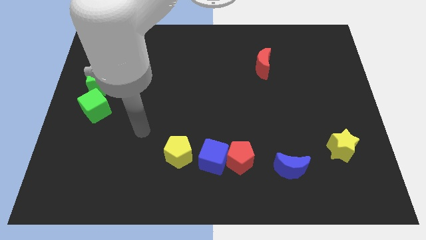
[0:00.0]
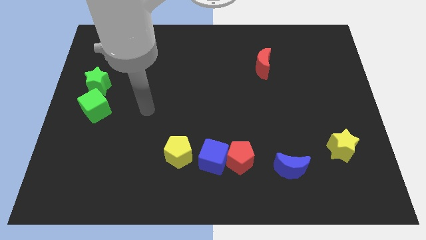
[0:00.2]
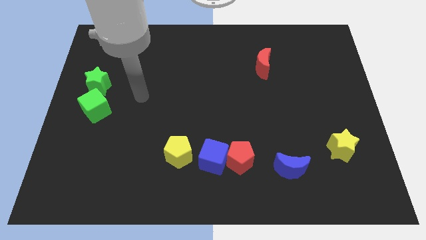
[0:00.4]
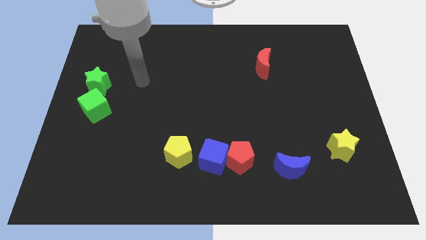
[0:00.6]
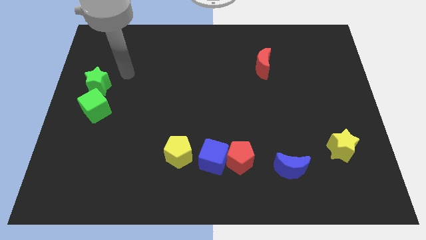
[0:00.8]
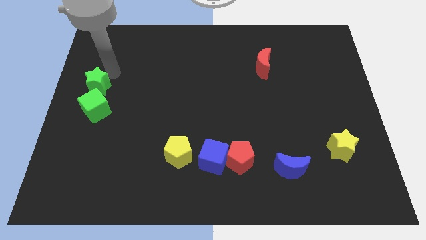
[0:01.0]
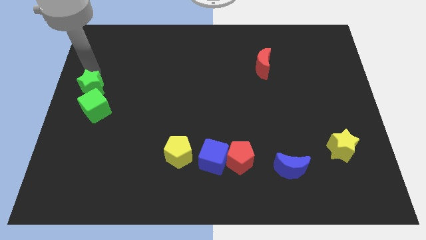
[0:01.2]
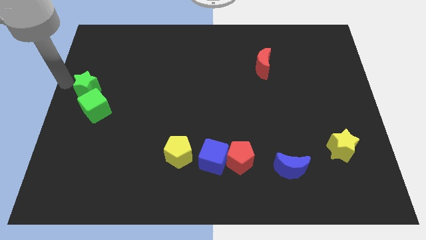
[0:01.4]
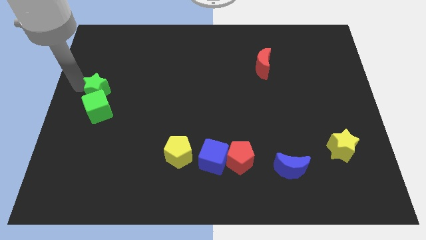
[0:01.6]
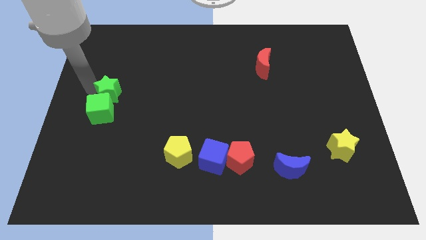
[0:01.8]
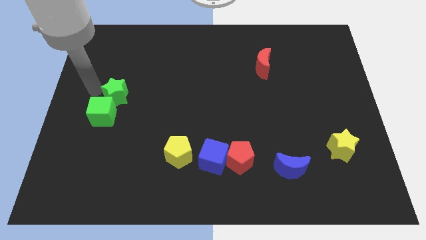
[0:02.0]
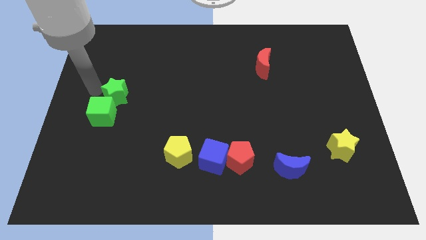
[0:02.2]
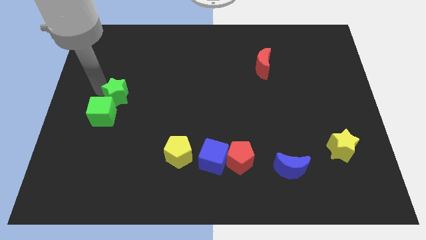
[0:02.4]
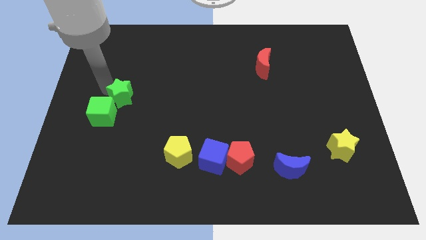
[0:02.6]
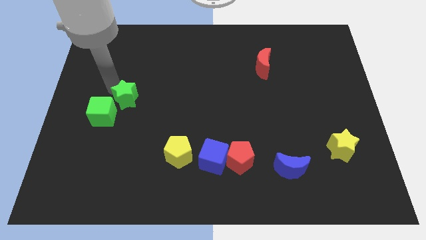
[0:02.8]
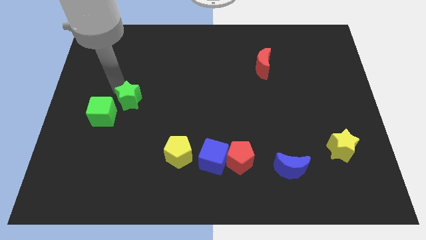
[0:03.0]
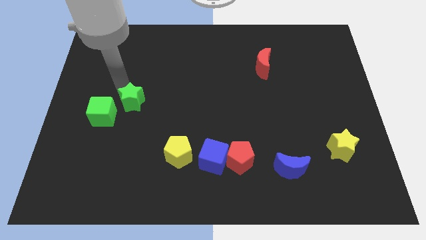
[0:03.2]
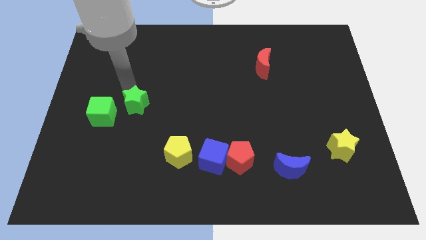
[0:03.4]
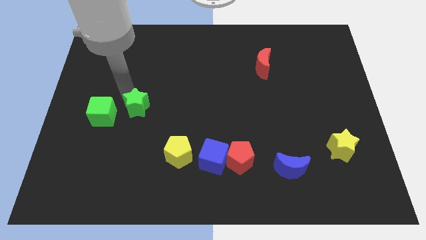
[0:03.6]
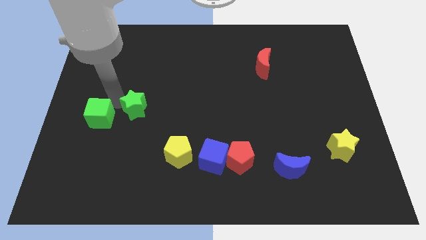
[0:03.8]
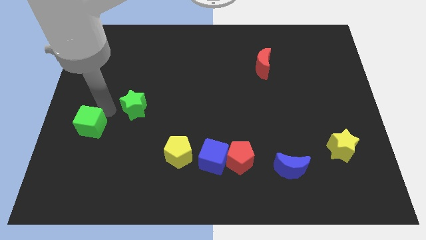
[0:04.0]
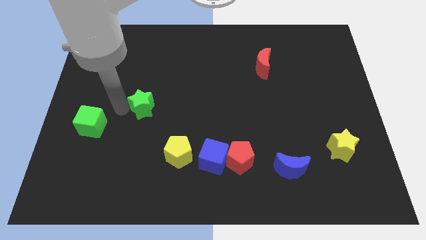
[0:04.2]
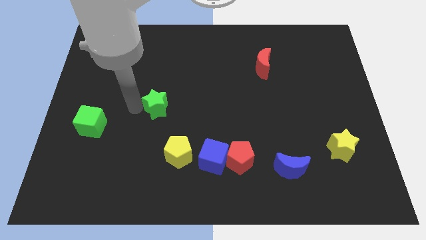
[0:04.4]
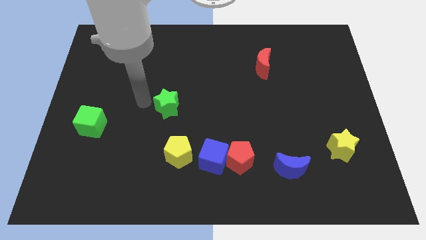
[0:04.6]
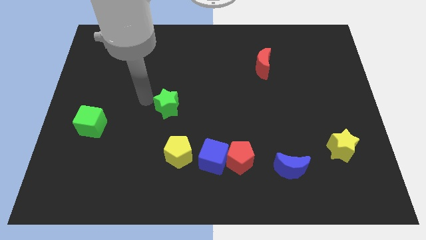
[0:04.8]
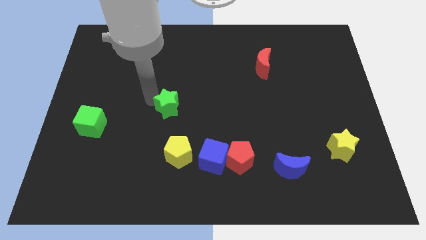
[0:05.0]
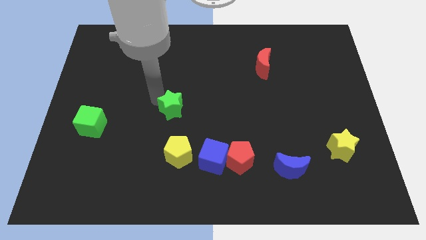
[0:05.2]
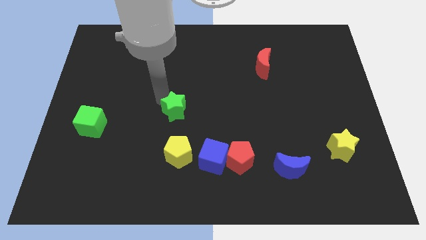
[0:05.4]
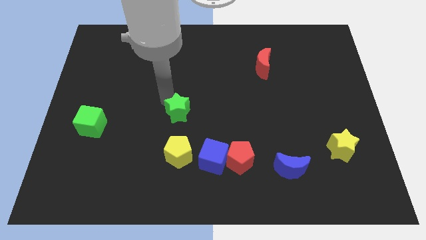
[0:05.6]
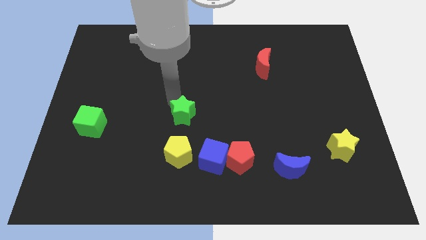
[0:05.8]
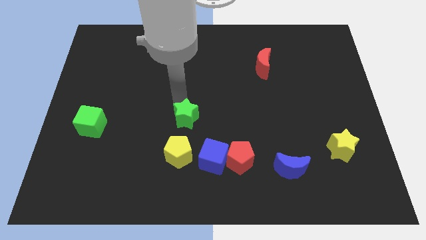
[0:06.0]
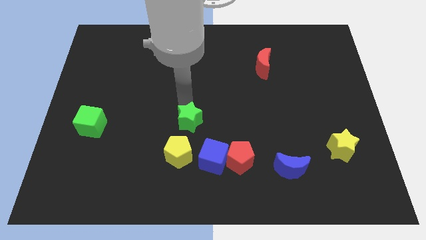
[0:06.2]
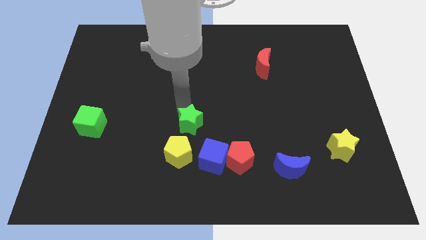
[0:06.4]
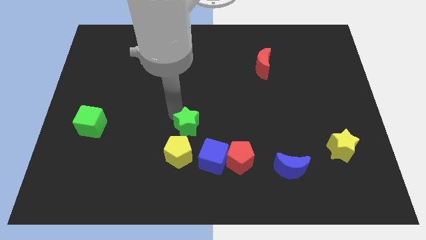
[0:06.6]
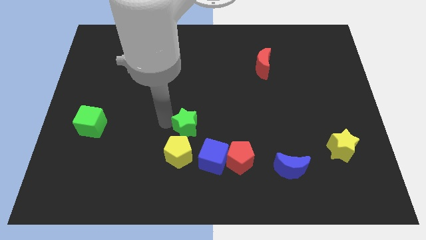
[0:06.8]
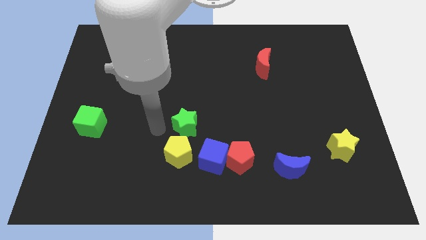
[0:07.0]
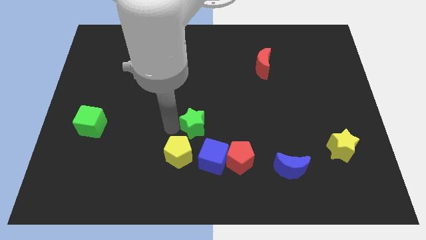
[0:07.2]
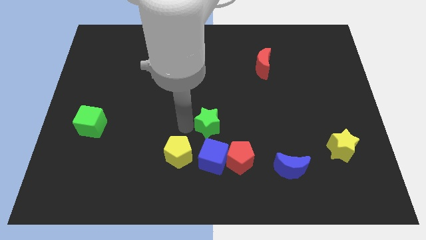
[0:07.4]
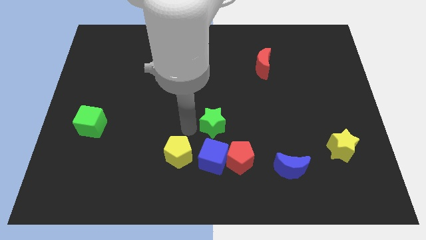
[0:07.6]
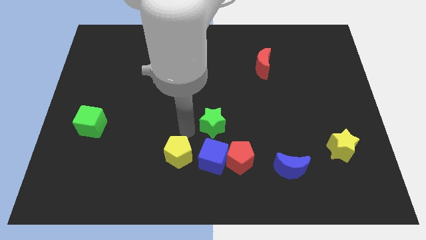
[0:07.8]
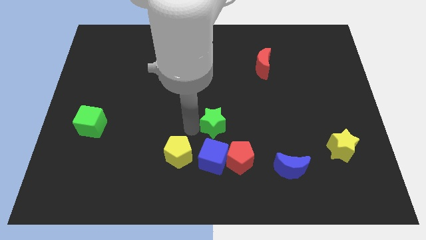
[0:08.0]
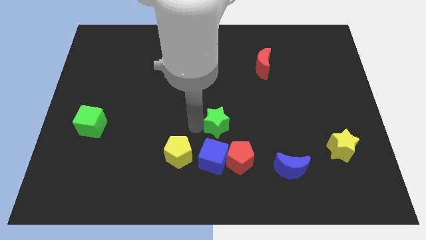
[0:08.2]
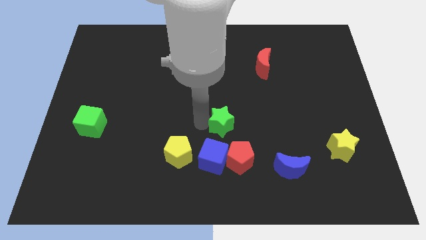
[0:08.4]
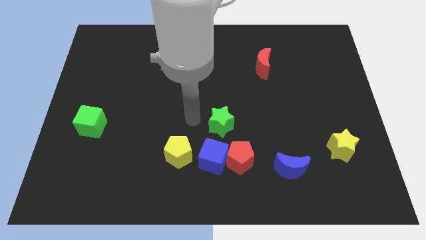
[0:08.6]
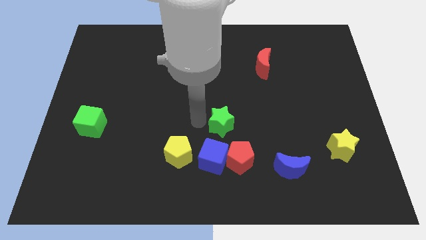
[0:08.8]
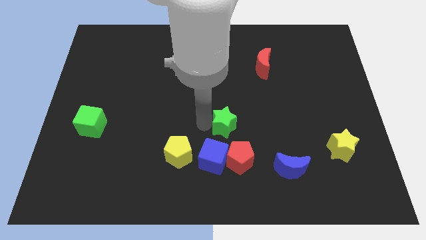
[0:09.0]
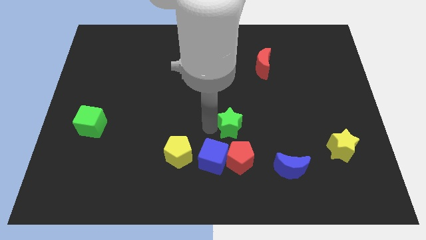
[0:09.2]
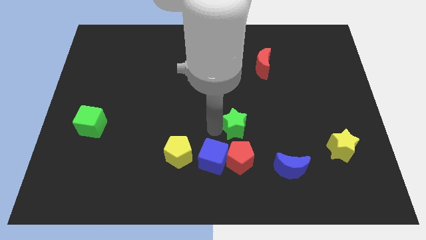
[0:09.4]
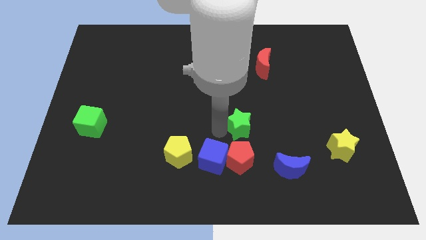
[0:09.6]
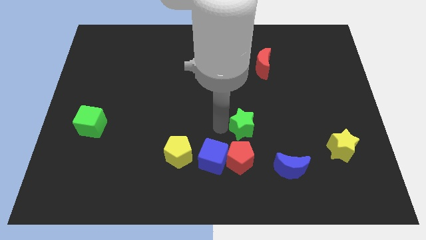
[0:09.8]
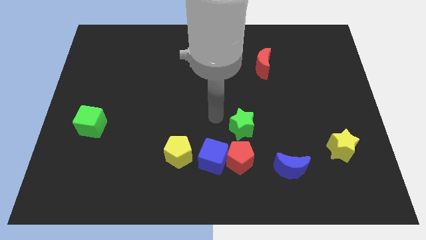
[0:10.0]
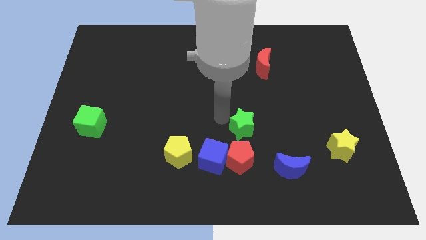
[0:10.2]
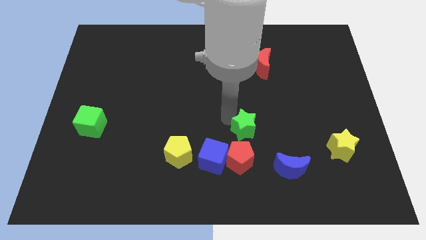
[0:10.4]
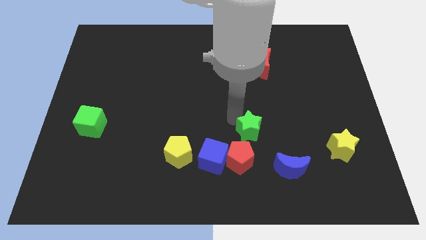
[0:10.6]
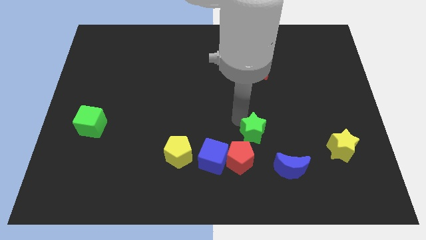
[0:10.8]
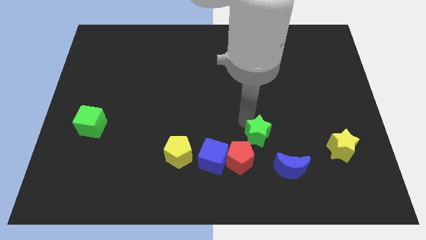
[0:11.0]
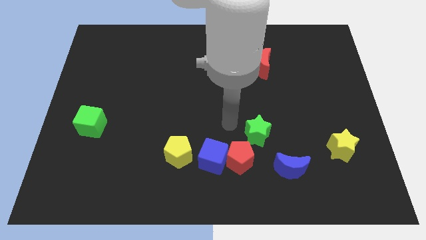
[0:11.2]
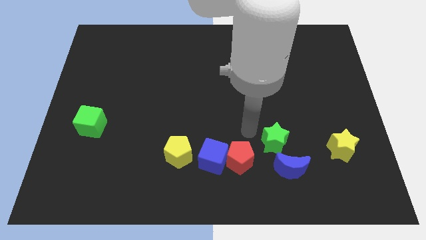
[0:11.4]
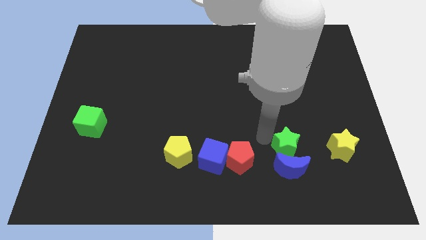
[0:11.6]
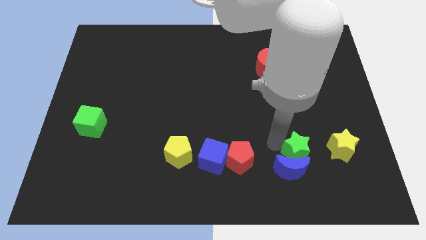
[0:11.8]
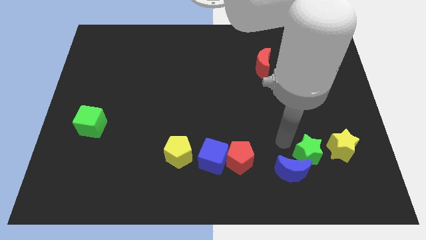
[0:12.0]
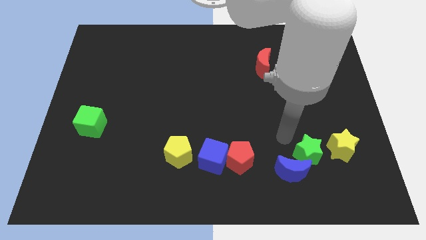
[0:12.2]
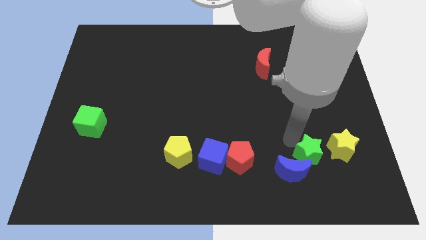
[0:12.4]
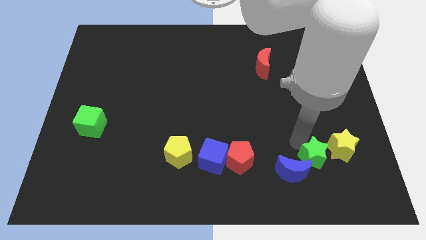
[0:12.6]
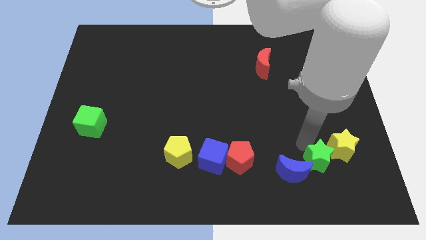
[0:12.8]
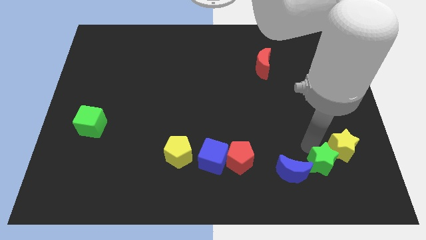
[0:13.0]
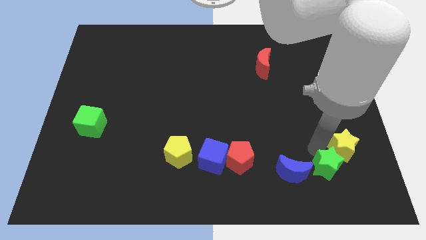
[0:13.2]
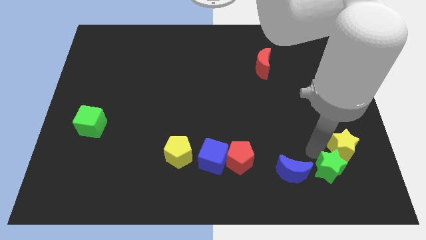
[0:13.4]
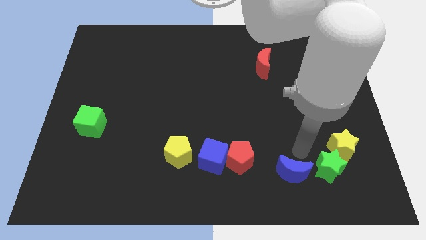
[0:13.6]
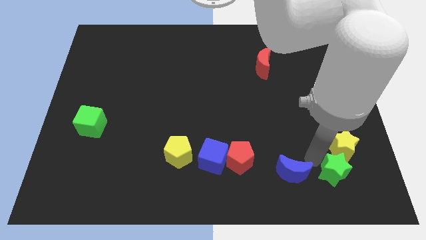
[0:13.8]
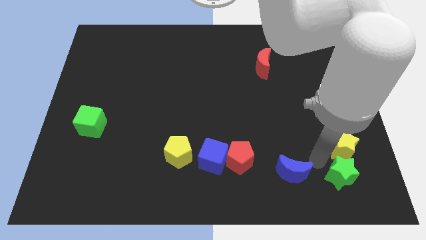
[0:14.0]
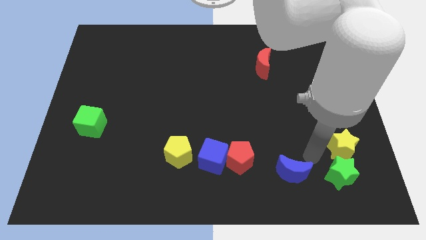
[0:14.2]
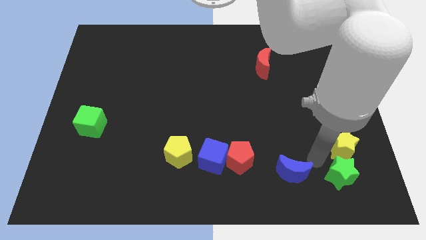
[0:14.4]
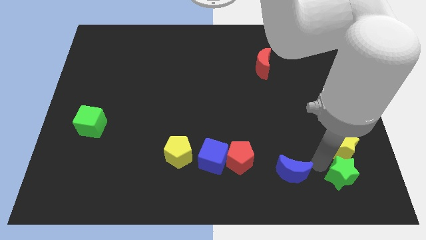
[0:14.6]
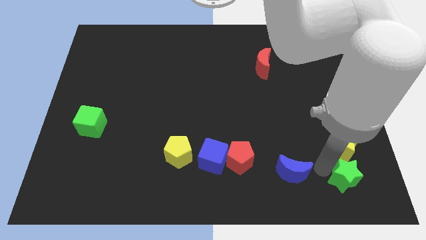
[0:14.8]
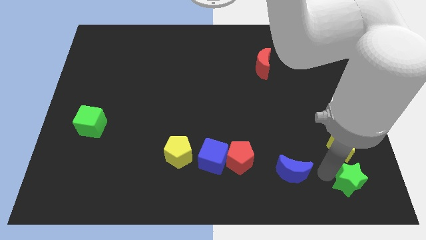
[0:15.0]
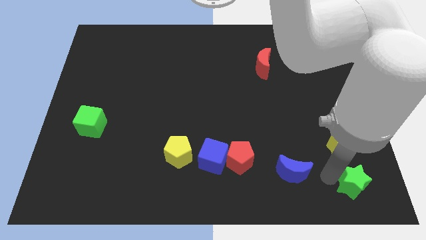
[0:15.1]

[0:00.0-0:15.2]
put the green star to the bottom right corner
